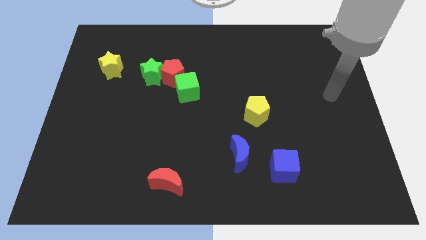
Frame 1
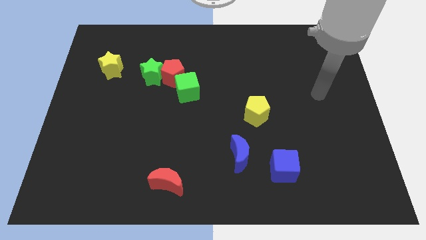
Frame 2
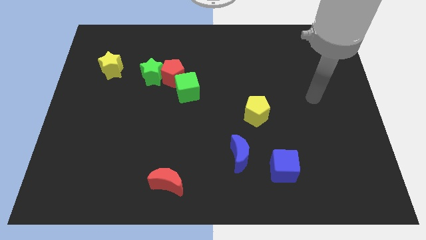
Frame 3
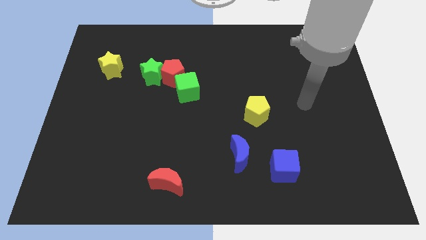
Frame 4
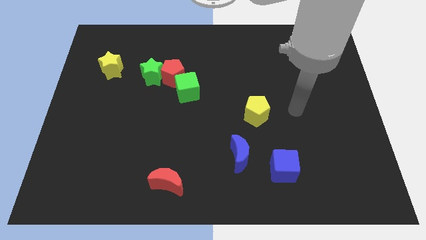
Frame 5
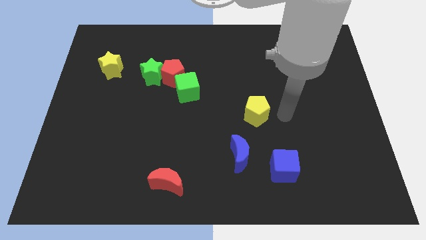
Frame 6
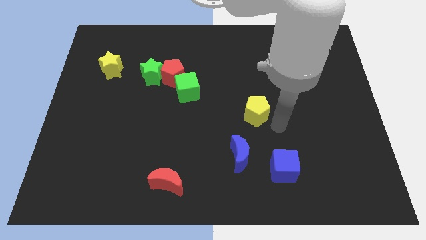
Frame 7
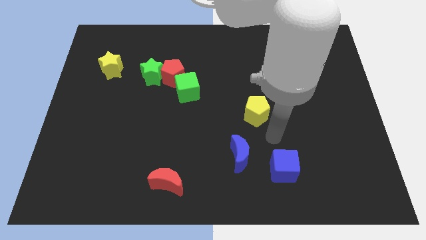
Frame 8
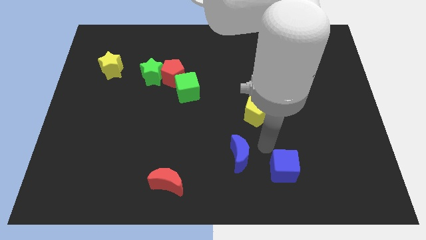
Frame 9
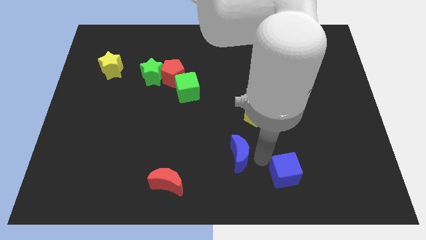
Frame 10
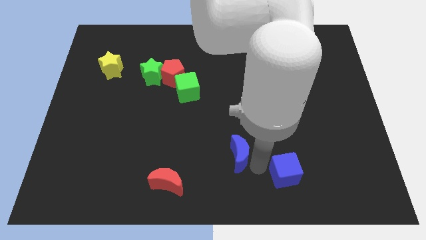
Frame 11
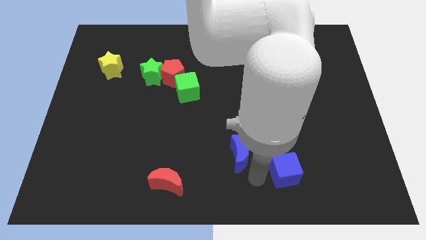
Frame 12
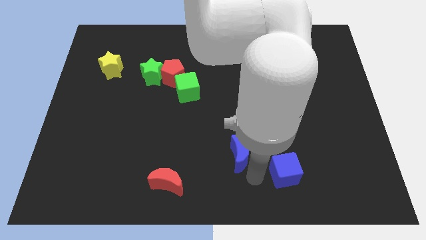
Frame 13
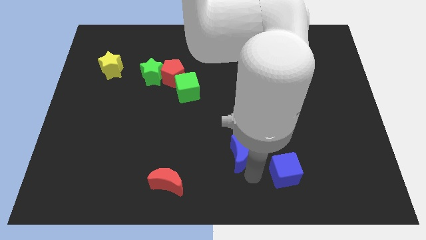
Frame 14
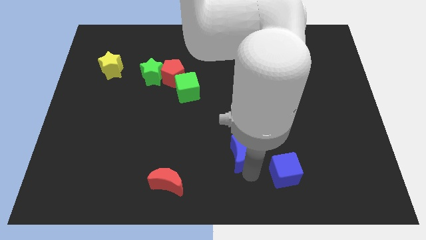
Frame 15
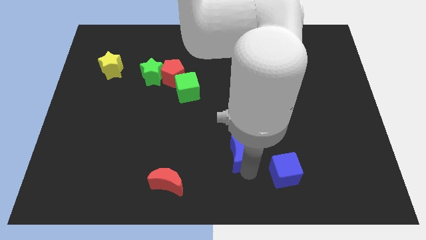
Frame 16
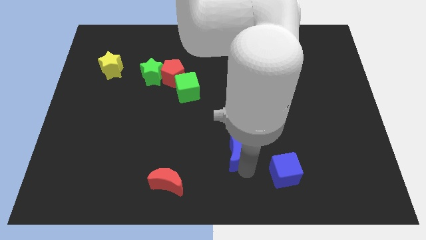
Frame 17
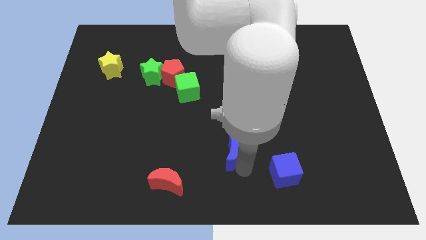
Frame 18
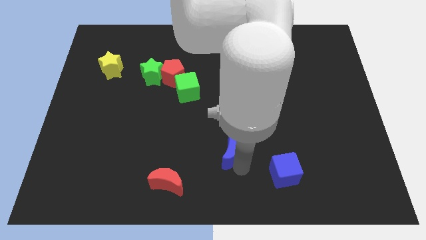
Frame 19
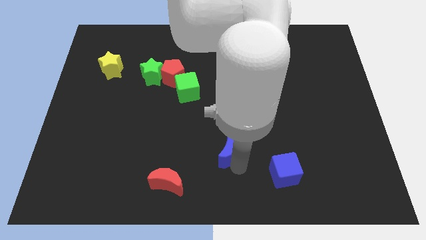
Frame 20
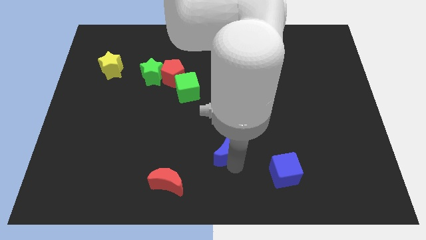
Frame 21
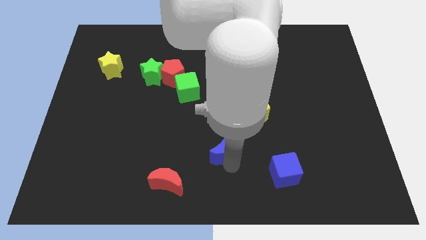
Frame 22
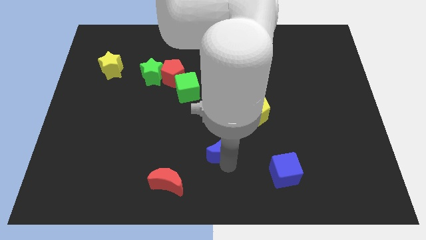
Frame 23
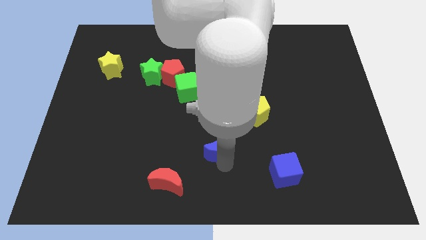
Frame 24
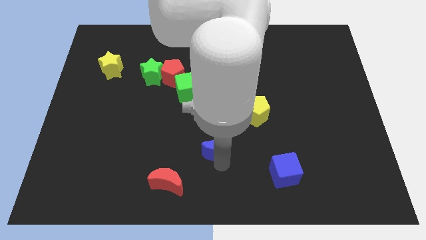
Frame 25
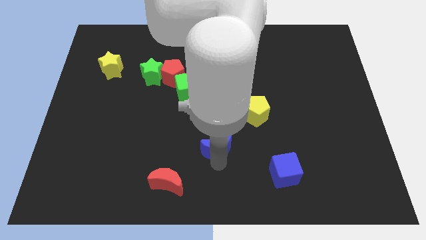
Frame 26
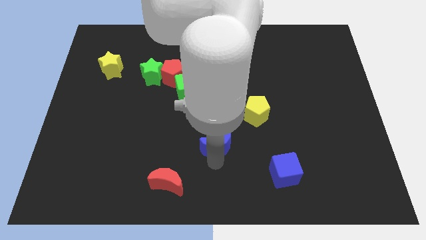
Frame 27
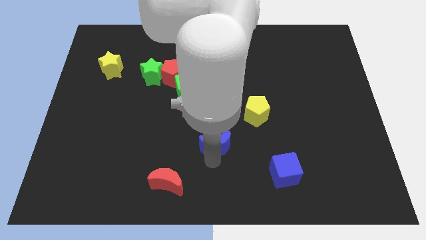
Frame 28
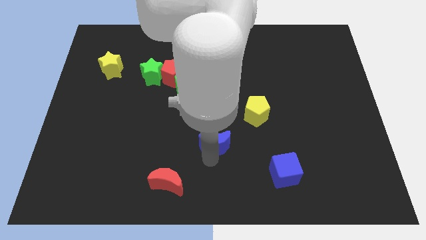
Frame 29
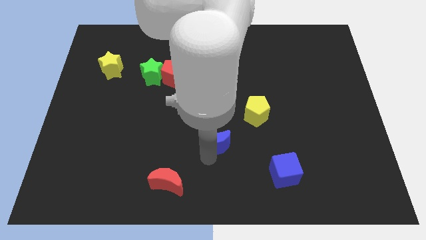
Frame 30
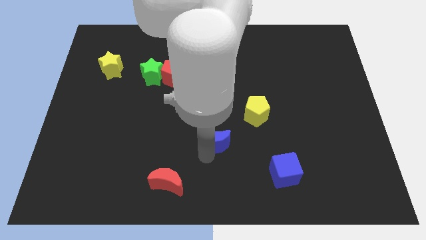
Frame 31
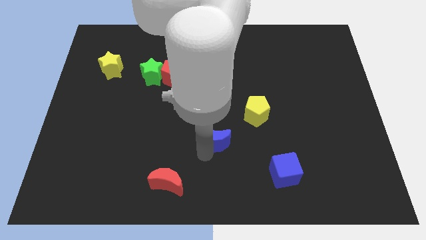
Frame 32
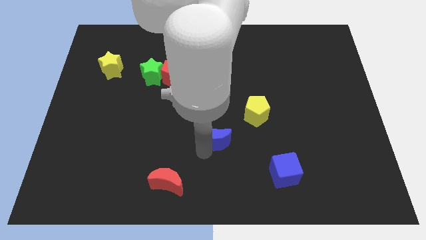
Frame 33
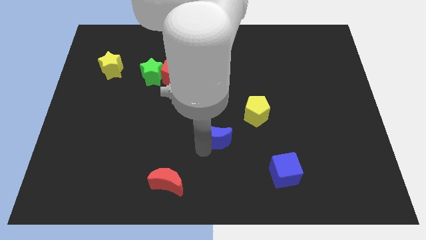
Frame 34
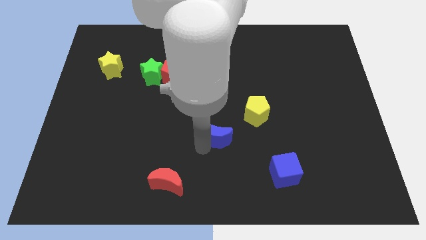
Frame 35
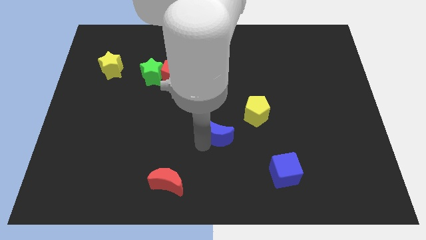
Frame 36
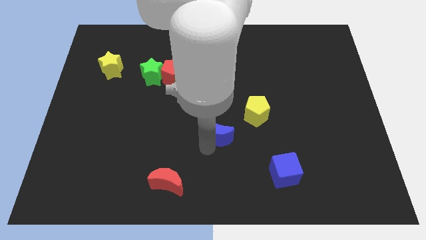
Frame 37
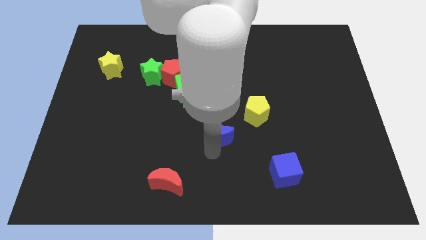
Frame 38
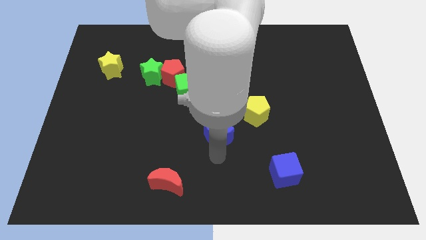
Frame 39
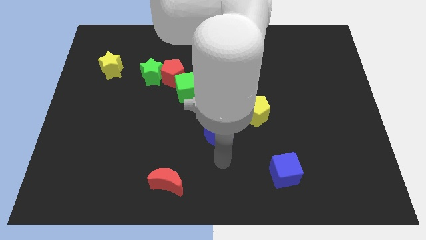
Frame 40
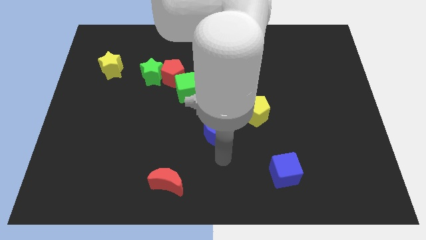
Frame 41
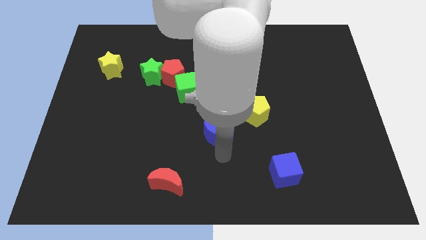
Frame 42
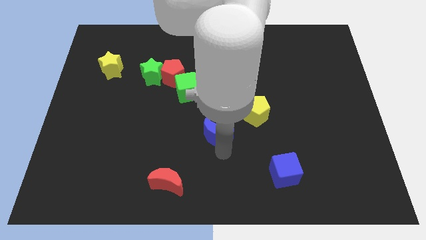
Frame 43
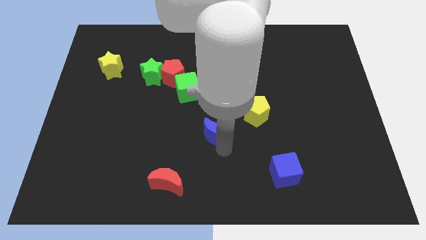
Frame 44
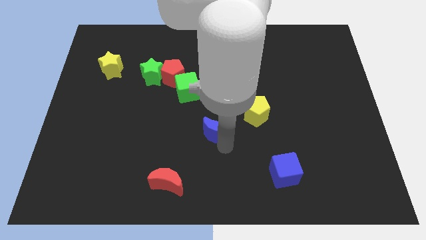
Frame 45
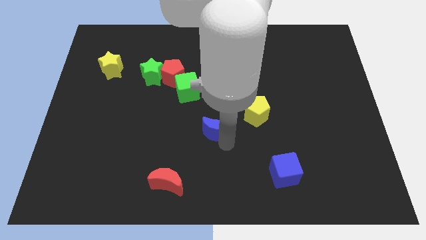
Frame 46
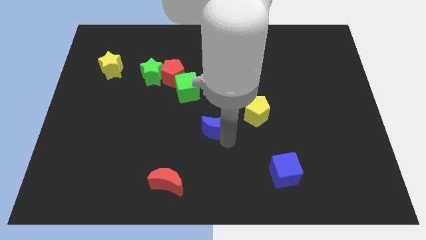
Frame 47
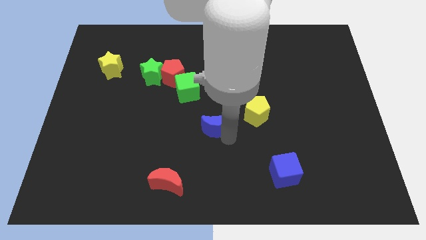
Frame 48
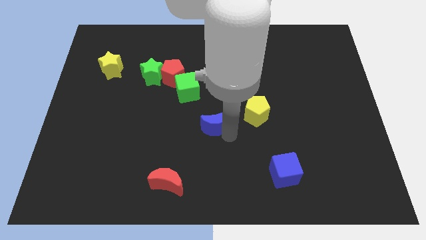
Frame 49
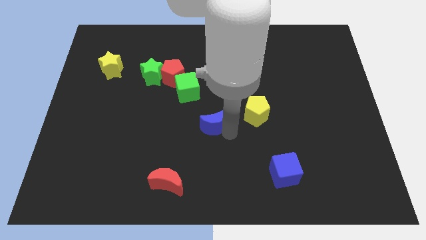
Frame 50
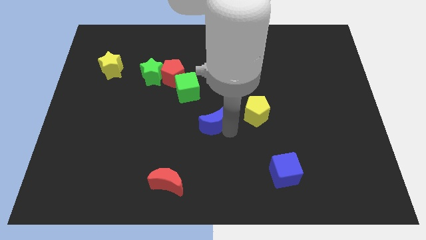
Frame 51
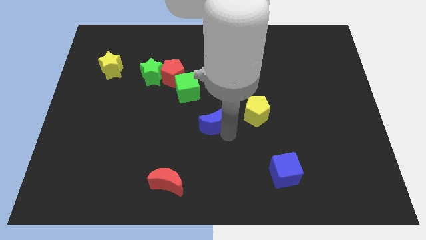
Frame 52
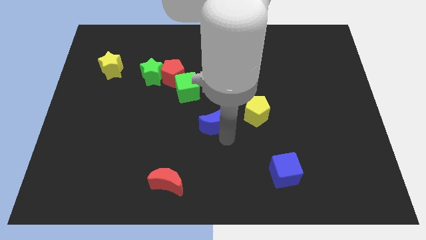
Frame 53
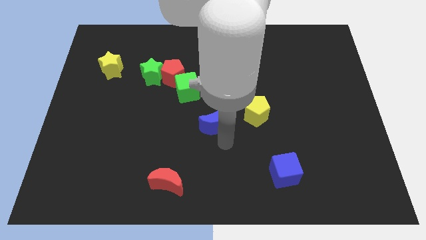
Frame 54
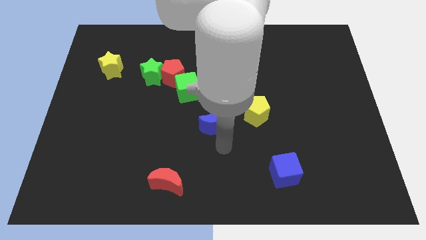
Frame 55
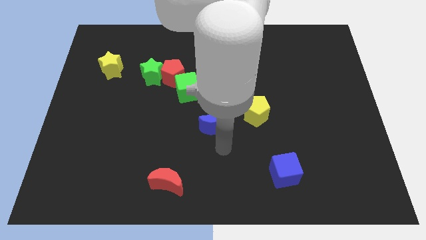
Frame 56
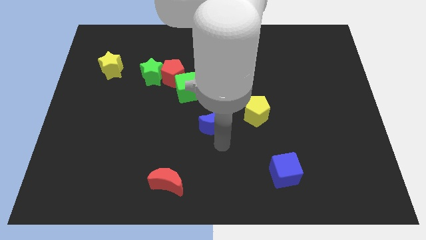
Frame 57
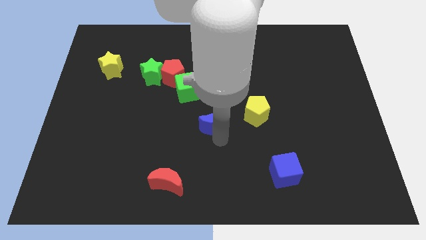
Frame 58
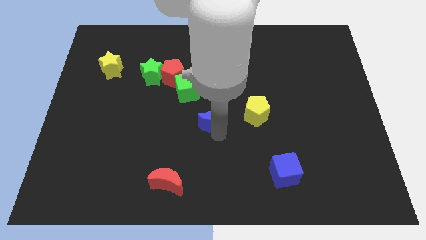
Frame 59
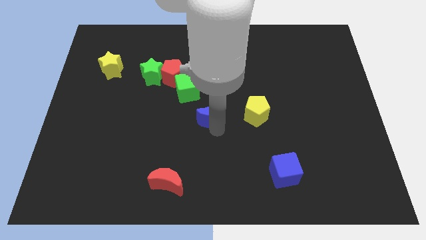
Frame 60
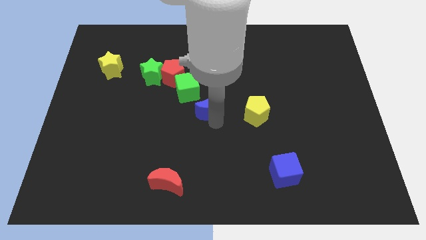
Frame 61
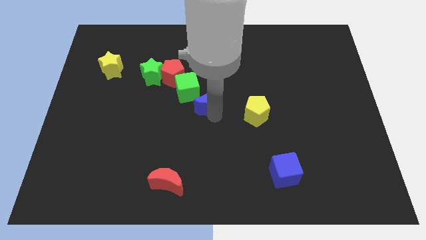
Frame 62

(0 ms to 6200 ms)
slide the blue moon to the bottom right of the red pentagon
